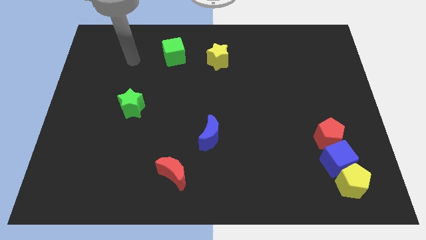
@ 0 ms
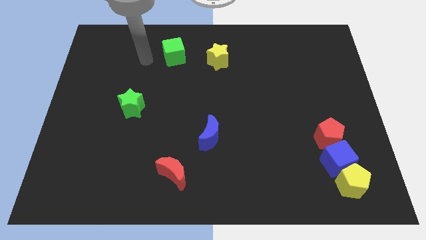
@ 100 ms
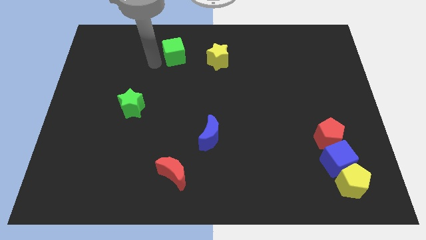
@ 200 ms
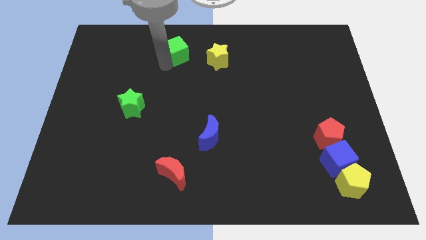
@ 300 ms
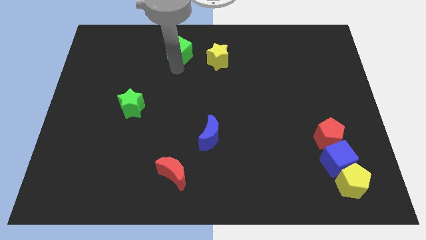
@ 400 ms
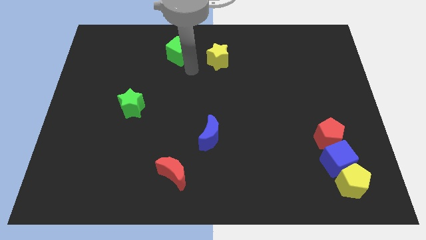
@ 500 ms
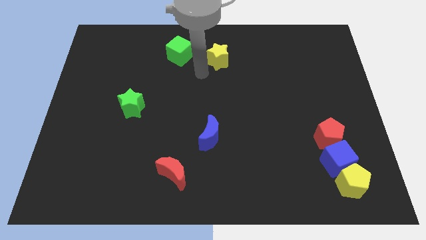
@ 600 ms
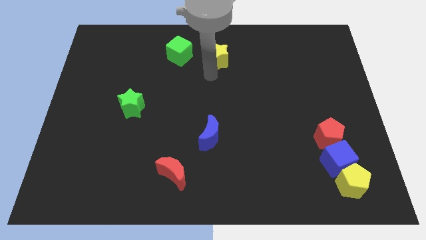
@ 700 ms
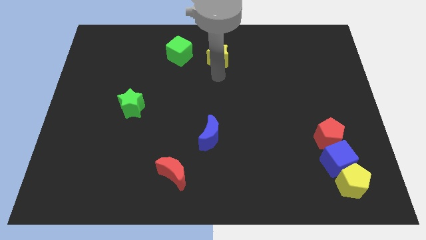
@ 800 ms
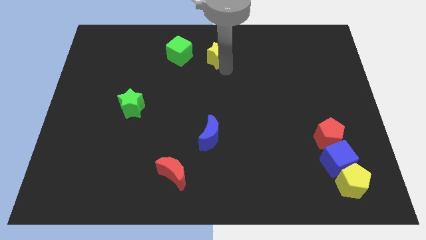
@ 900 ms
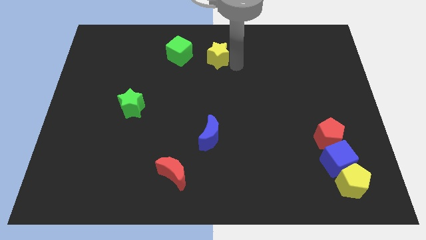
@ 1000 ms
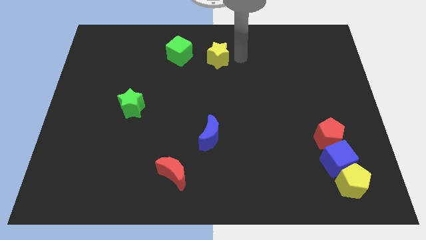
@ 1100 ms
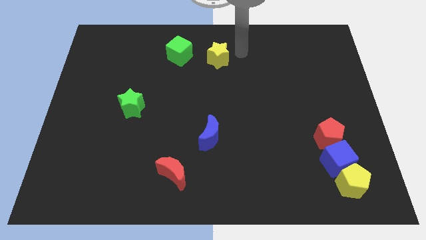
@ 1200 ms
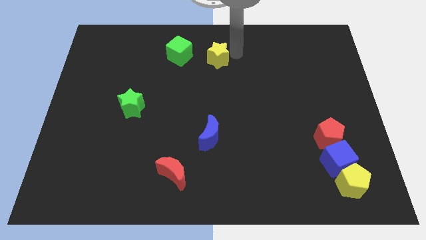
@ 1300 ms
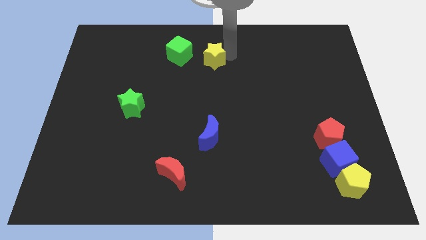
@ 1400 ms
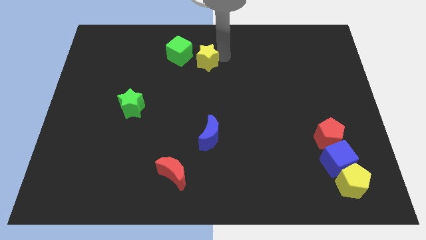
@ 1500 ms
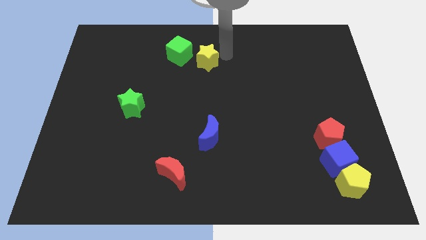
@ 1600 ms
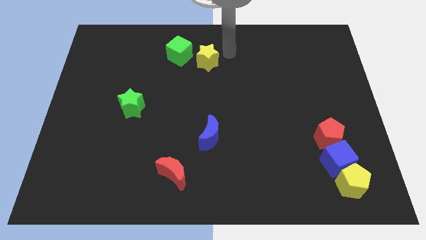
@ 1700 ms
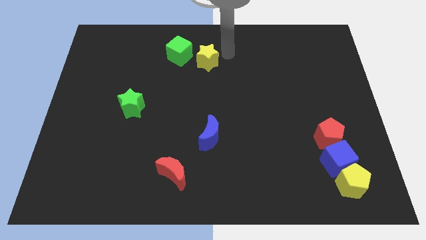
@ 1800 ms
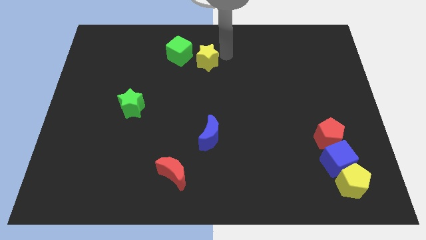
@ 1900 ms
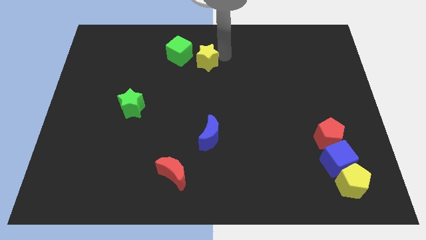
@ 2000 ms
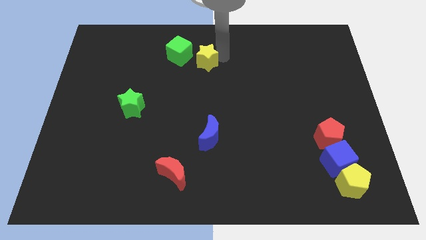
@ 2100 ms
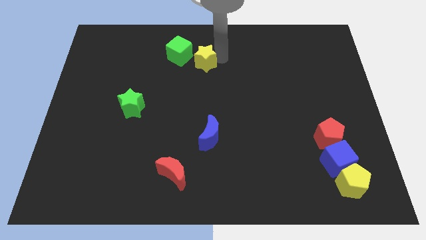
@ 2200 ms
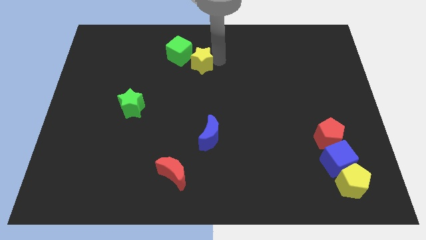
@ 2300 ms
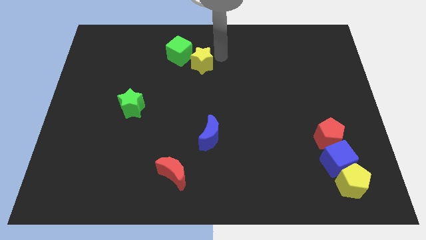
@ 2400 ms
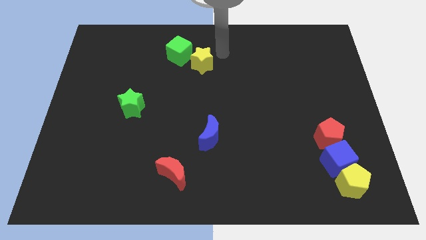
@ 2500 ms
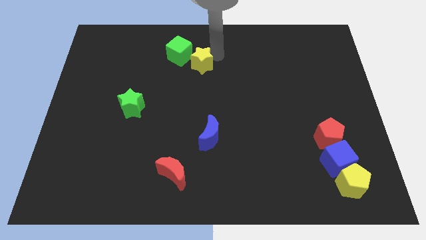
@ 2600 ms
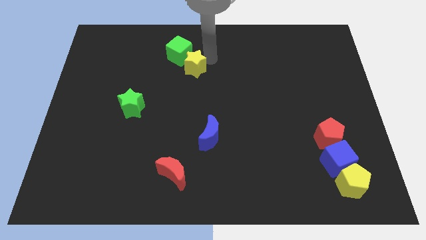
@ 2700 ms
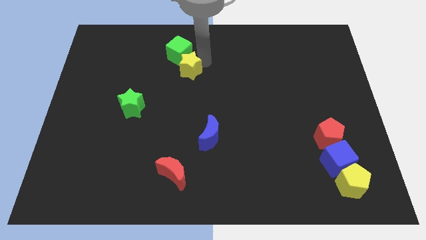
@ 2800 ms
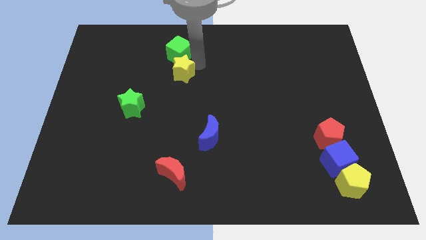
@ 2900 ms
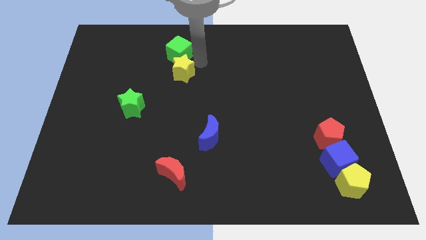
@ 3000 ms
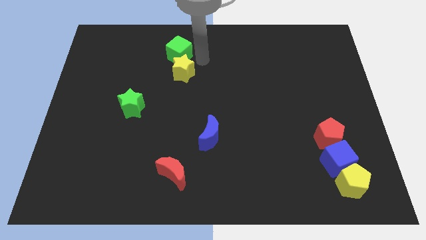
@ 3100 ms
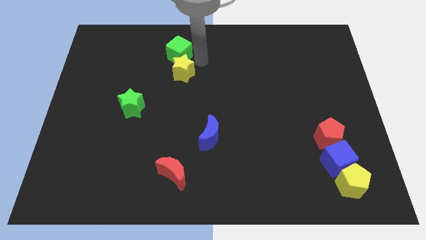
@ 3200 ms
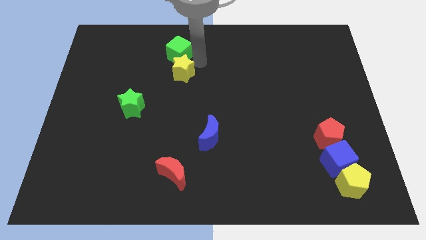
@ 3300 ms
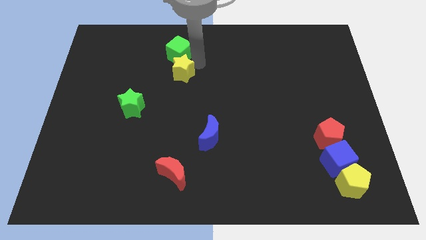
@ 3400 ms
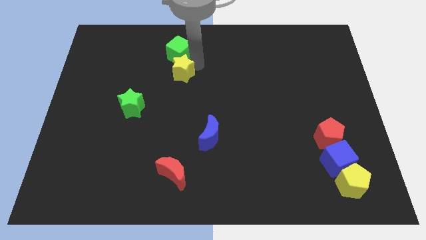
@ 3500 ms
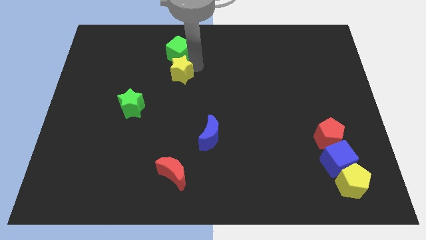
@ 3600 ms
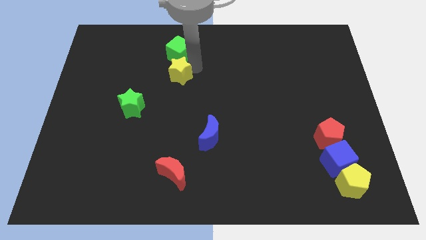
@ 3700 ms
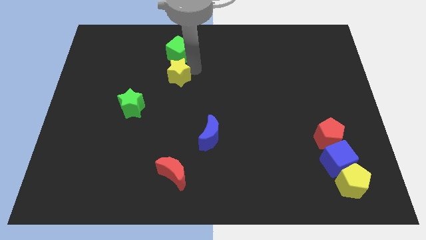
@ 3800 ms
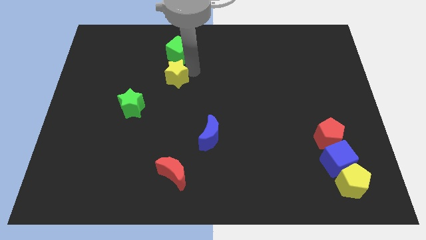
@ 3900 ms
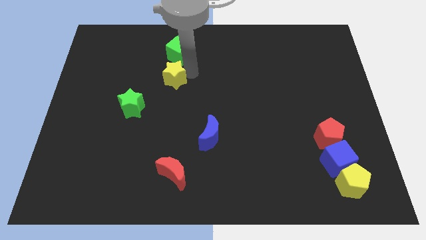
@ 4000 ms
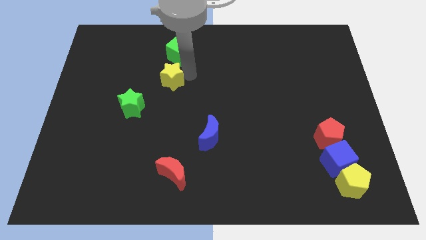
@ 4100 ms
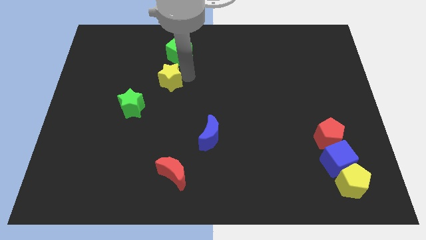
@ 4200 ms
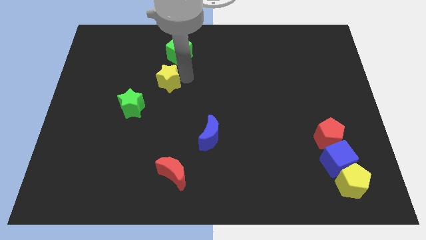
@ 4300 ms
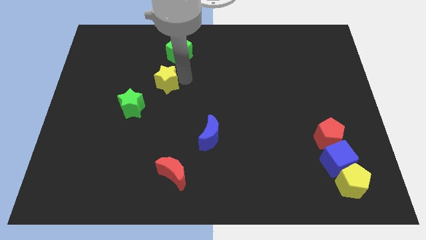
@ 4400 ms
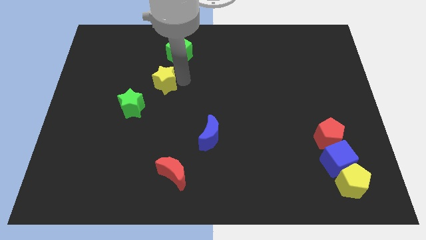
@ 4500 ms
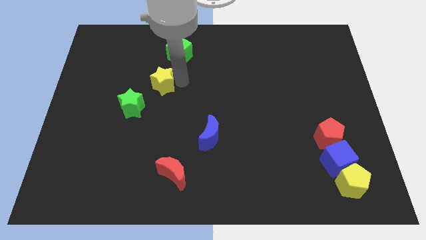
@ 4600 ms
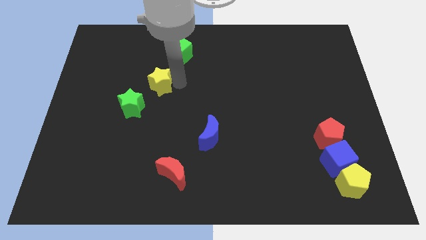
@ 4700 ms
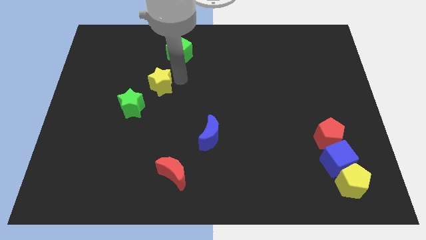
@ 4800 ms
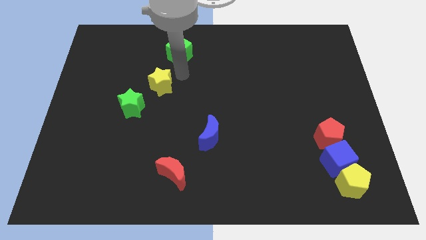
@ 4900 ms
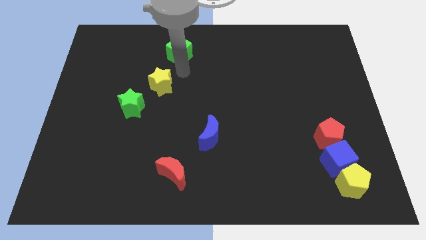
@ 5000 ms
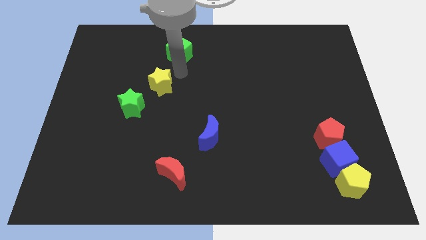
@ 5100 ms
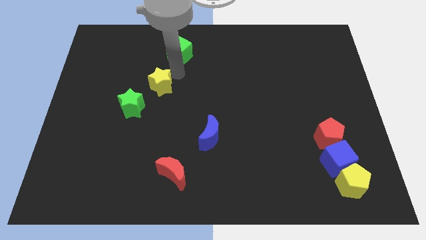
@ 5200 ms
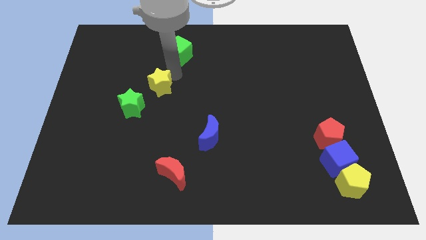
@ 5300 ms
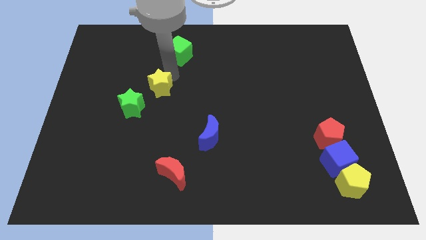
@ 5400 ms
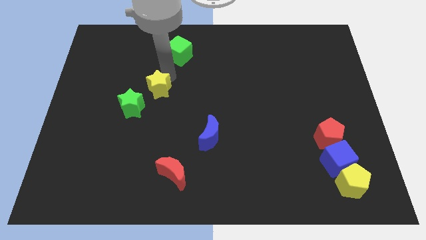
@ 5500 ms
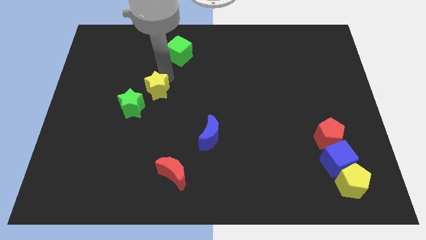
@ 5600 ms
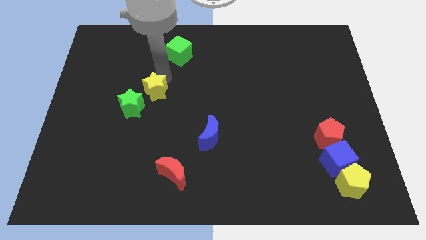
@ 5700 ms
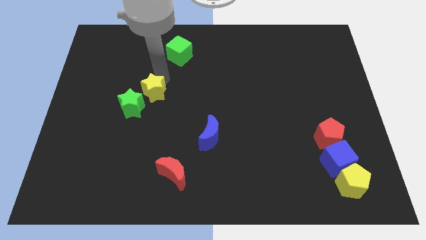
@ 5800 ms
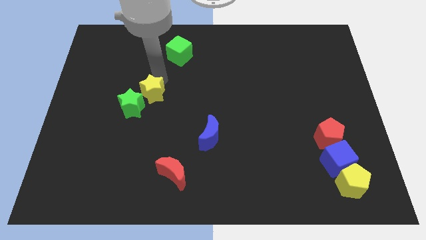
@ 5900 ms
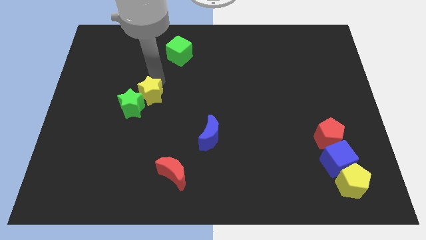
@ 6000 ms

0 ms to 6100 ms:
move the yellow star close to the green star

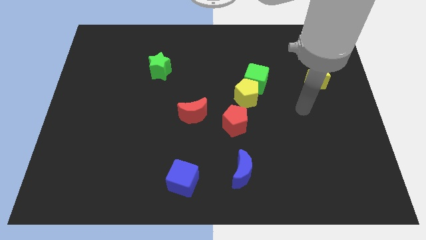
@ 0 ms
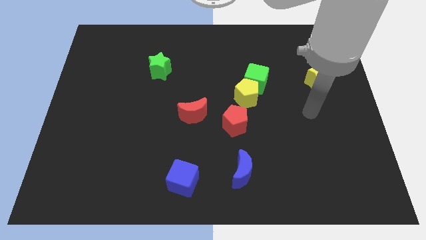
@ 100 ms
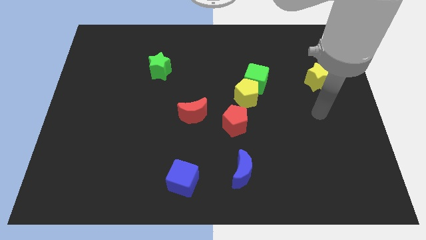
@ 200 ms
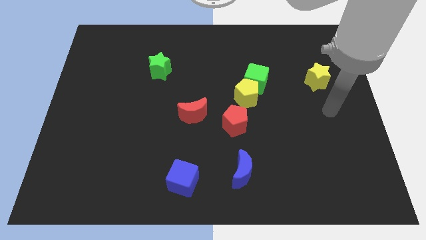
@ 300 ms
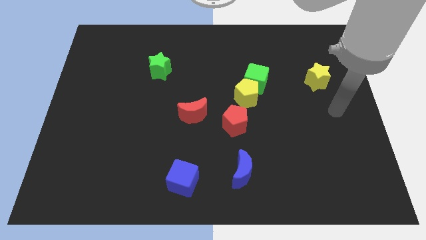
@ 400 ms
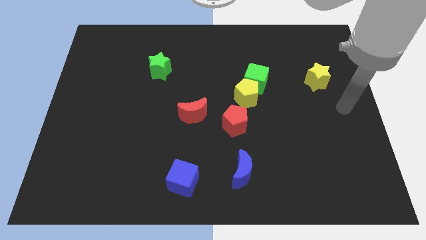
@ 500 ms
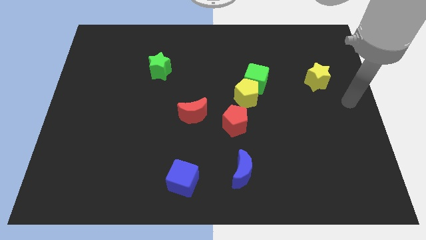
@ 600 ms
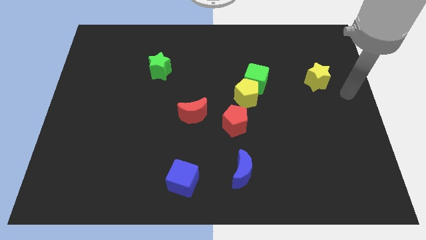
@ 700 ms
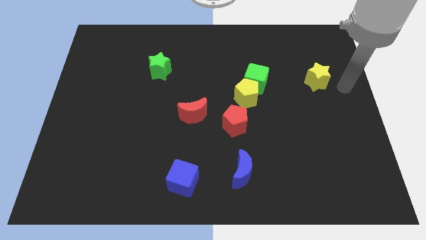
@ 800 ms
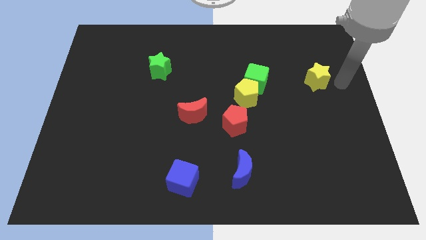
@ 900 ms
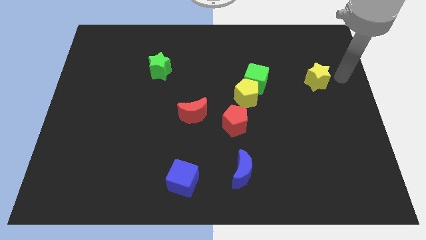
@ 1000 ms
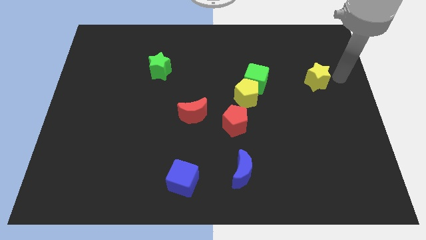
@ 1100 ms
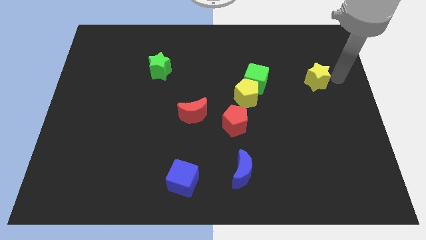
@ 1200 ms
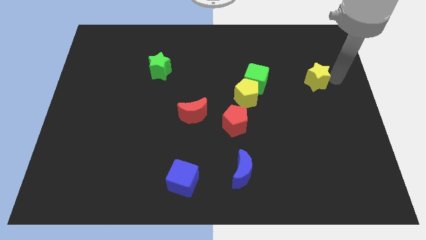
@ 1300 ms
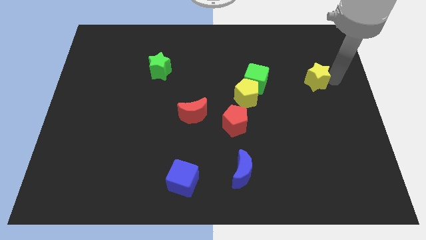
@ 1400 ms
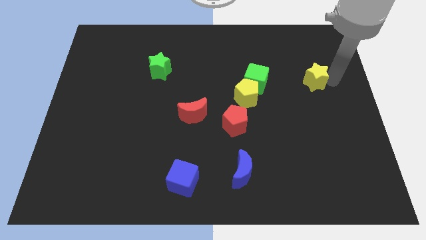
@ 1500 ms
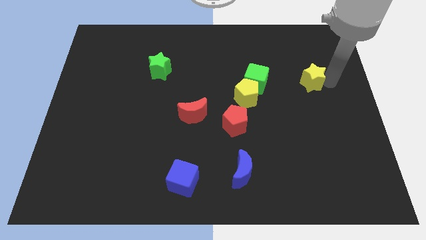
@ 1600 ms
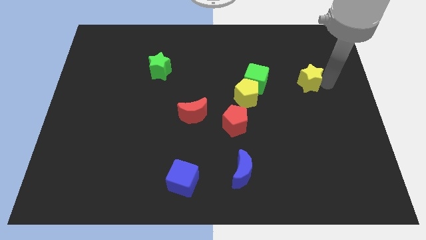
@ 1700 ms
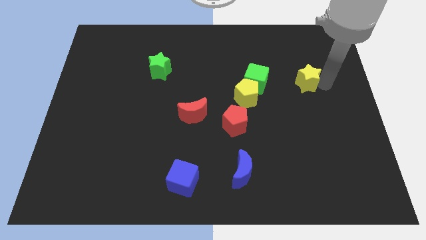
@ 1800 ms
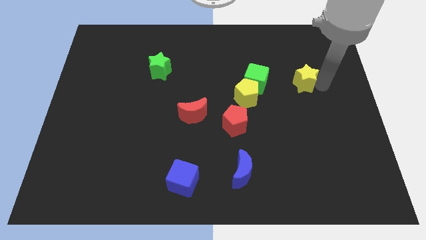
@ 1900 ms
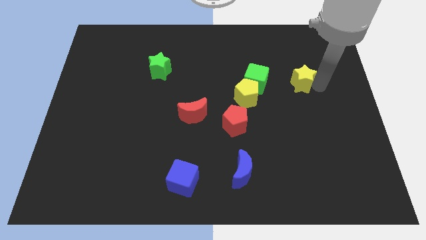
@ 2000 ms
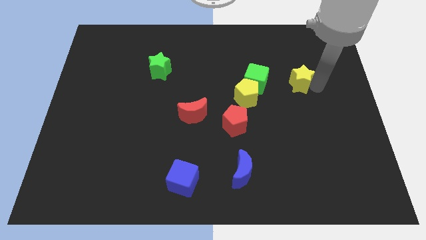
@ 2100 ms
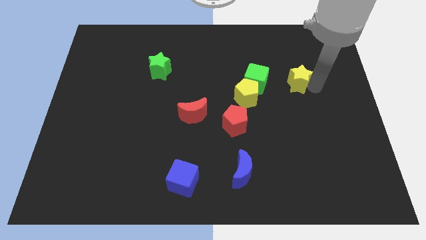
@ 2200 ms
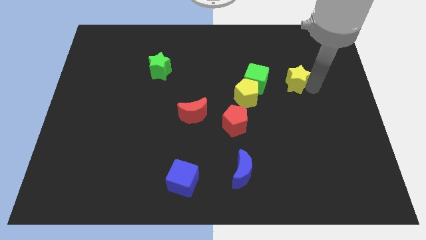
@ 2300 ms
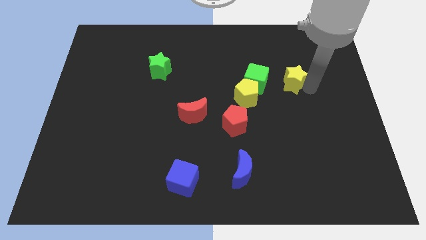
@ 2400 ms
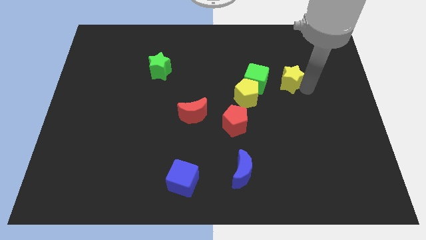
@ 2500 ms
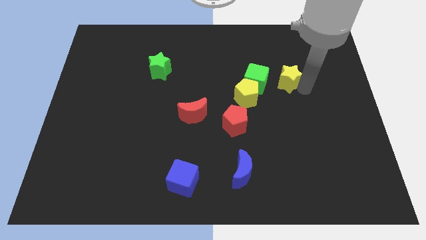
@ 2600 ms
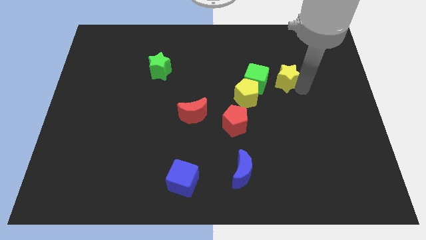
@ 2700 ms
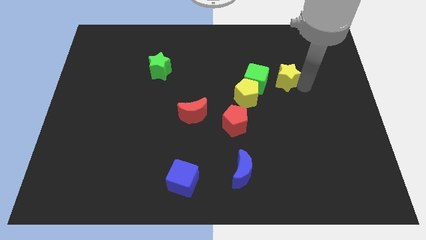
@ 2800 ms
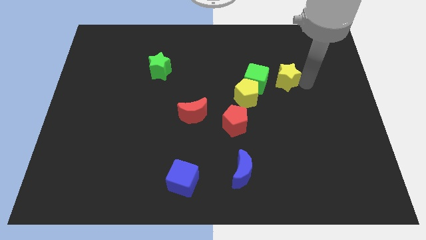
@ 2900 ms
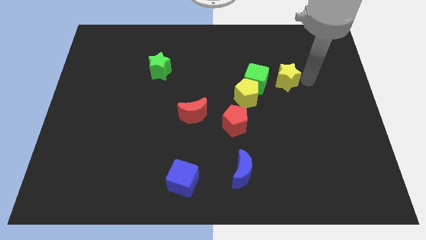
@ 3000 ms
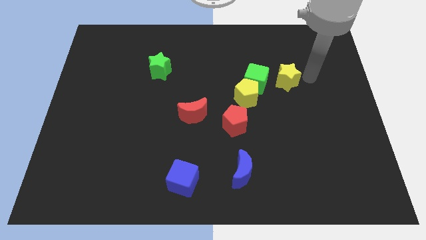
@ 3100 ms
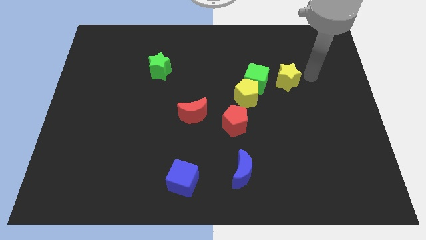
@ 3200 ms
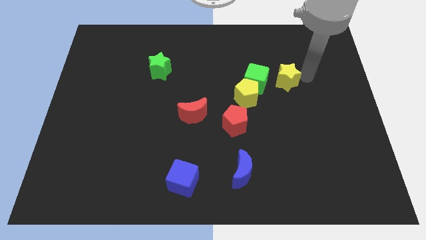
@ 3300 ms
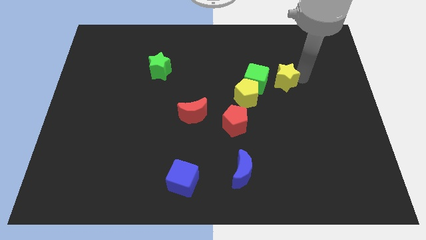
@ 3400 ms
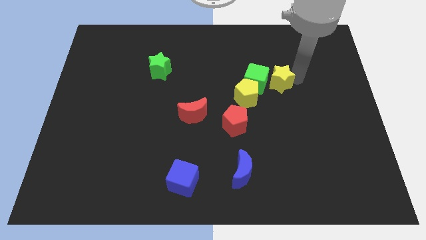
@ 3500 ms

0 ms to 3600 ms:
slide the yellow star close to the green cube
